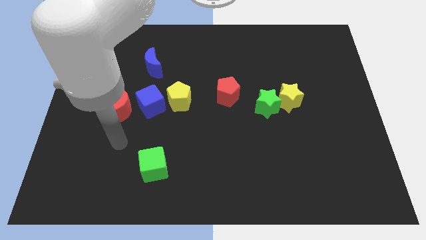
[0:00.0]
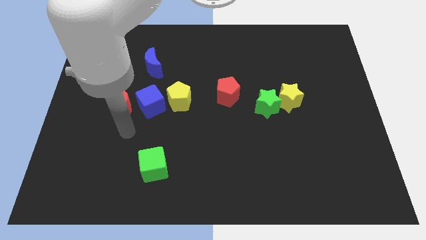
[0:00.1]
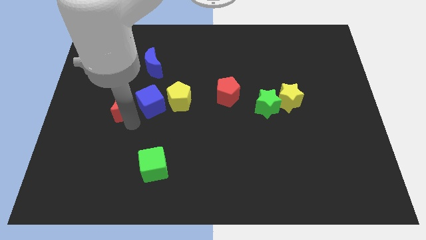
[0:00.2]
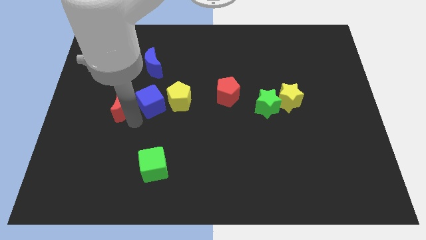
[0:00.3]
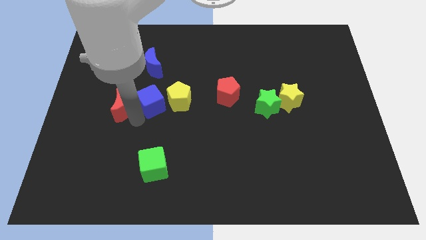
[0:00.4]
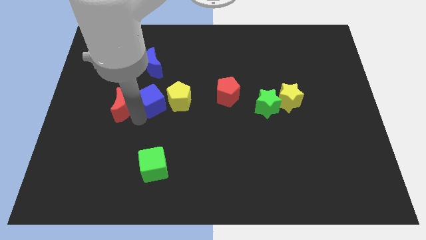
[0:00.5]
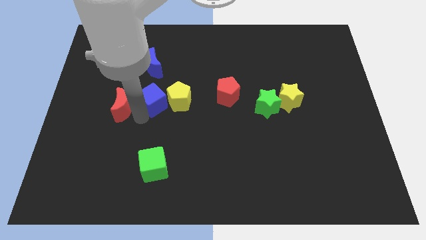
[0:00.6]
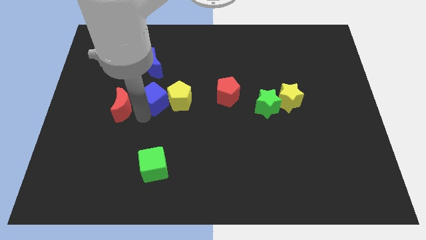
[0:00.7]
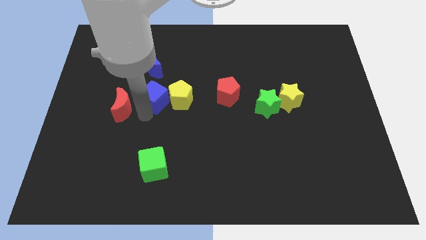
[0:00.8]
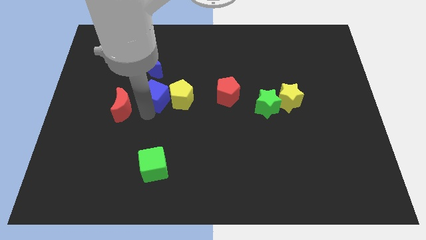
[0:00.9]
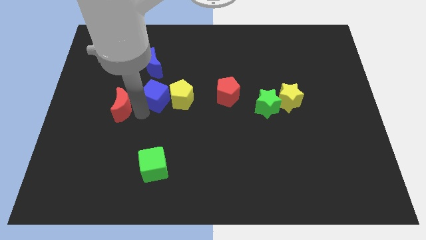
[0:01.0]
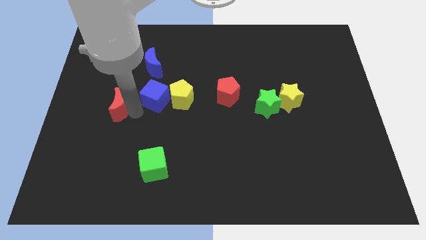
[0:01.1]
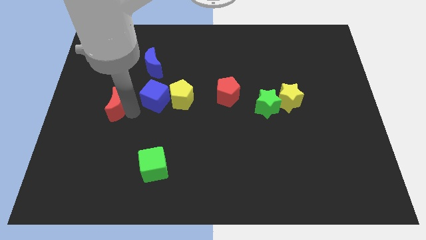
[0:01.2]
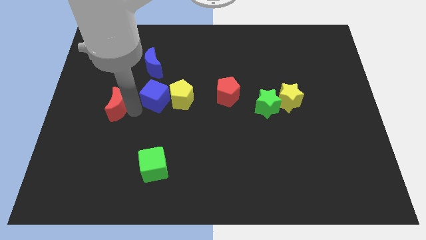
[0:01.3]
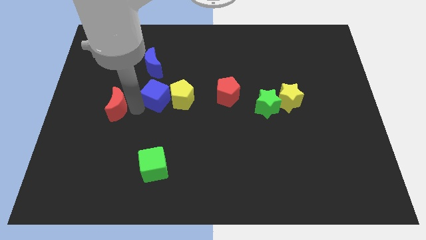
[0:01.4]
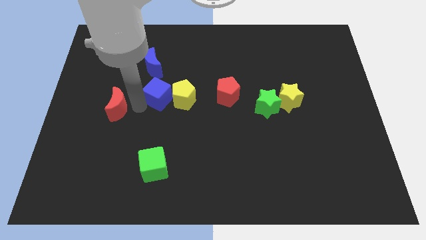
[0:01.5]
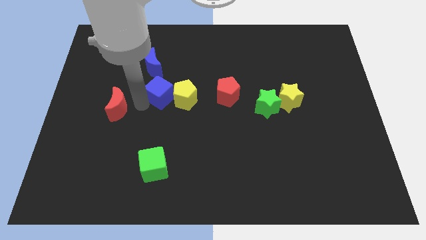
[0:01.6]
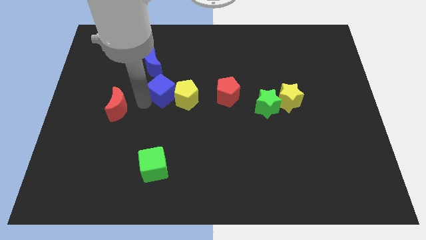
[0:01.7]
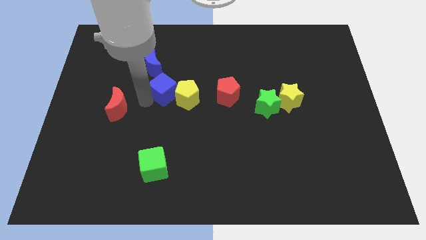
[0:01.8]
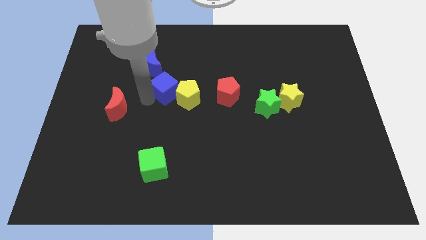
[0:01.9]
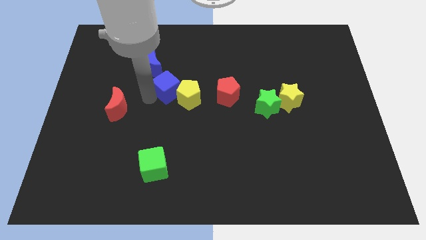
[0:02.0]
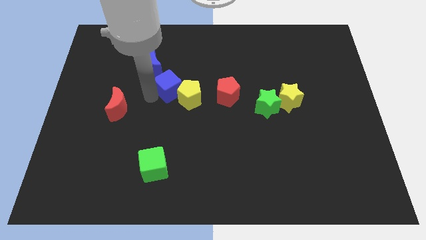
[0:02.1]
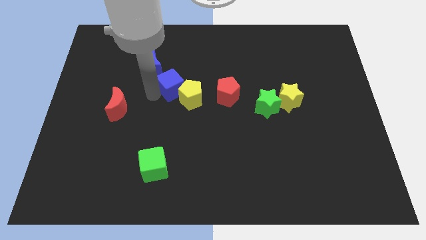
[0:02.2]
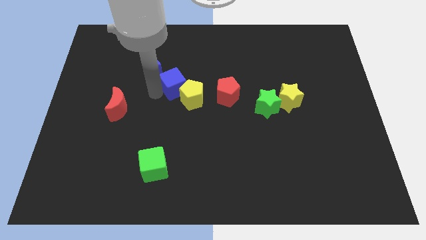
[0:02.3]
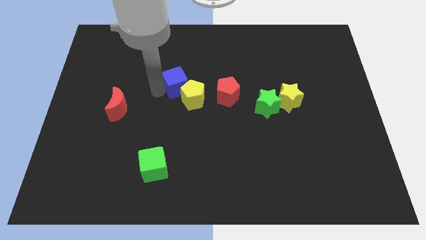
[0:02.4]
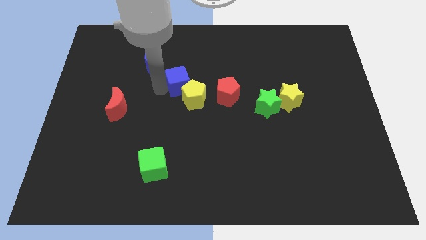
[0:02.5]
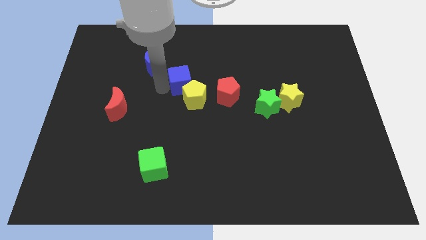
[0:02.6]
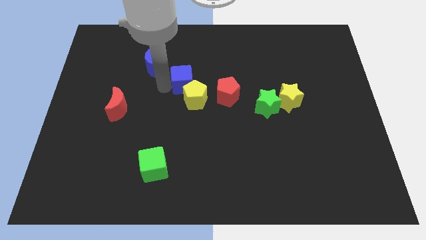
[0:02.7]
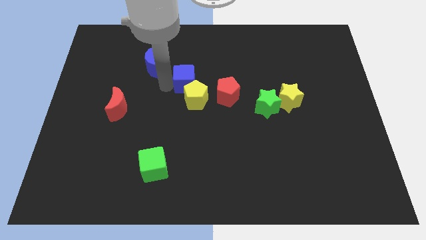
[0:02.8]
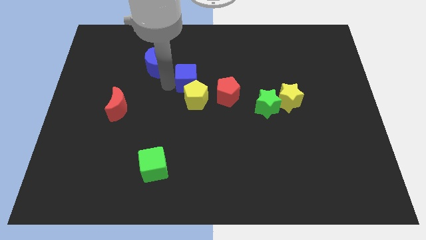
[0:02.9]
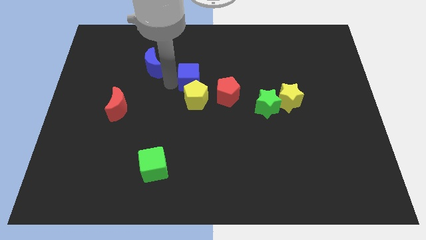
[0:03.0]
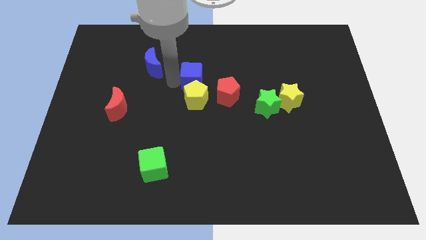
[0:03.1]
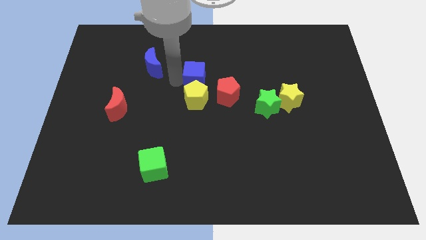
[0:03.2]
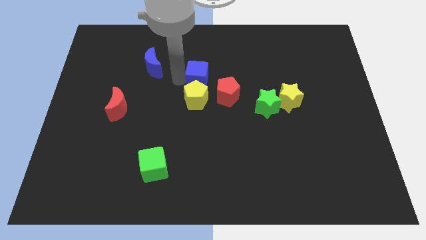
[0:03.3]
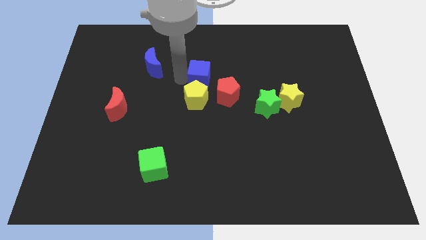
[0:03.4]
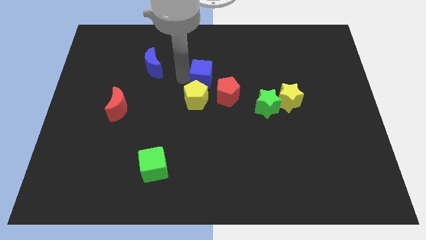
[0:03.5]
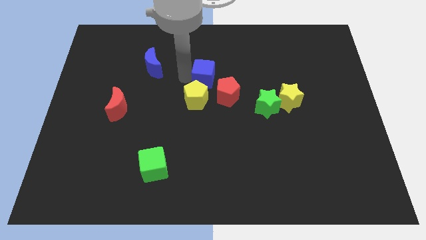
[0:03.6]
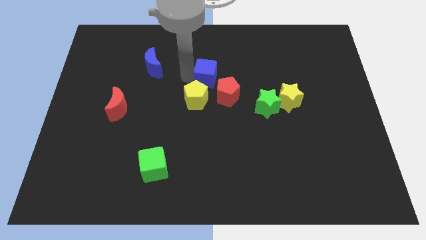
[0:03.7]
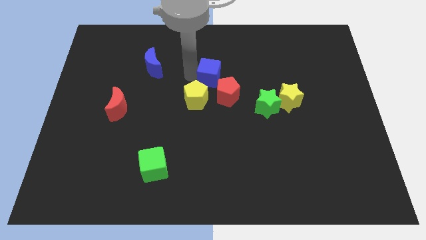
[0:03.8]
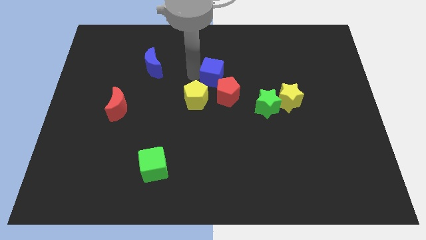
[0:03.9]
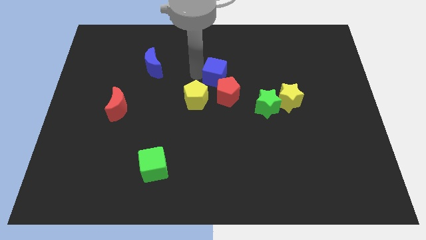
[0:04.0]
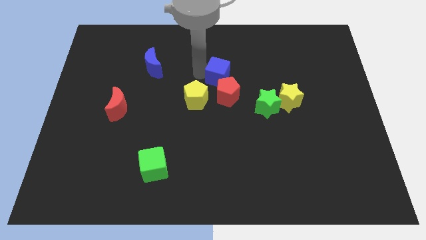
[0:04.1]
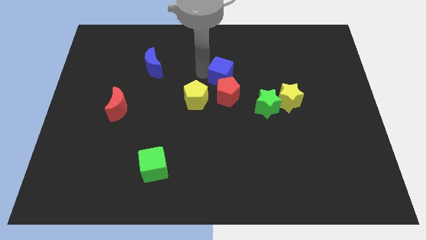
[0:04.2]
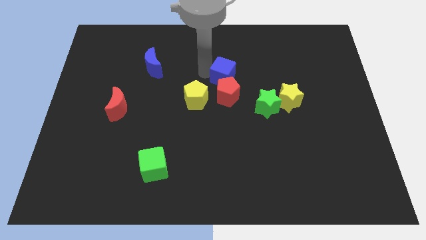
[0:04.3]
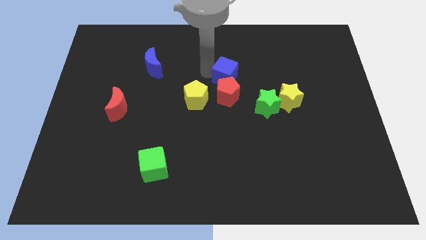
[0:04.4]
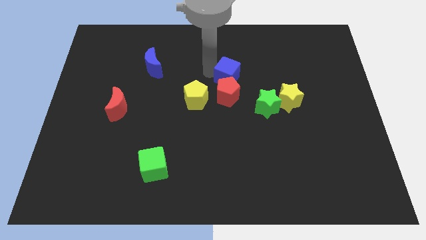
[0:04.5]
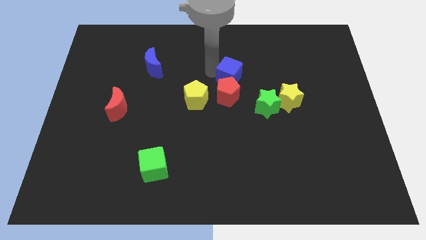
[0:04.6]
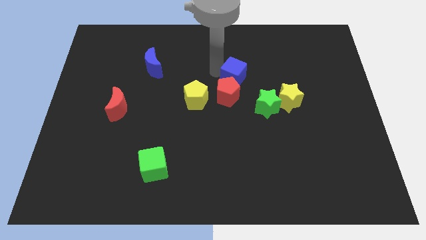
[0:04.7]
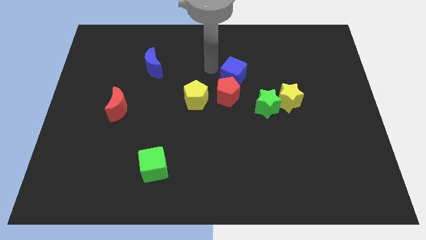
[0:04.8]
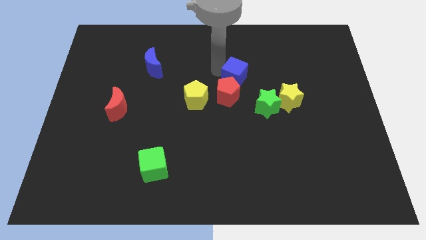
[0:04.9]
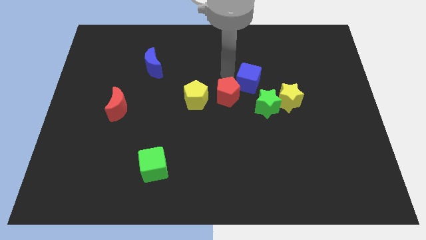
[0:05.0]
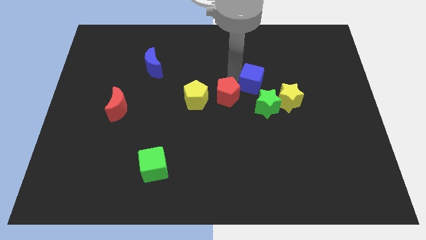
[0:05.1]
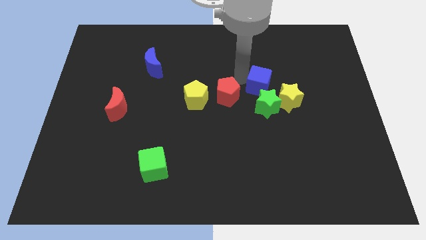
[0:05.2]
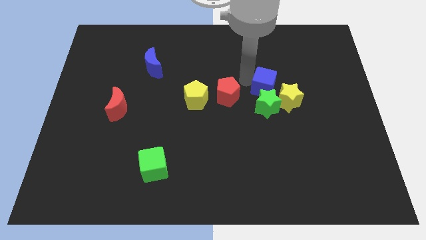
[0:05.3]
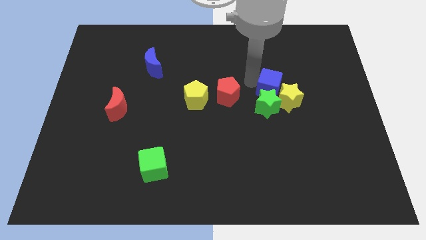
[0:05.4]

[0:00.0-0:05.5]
put the blue cube close to the yellow star

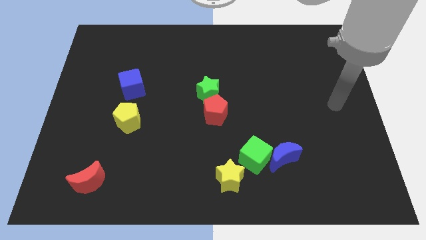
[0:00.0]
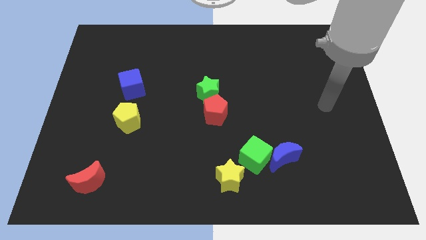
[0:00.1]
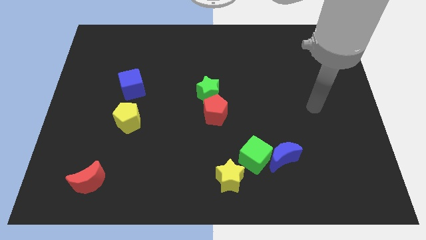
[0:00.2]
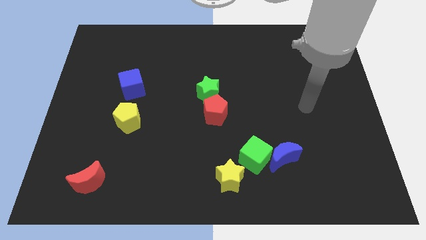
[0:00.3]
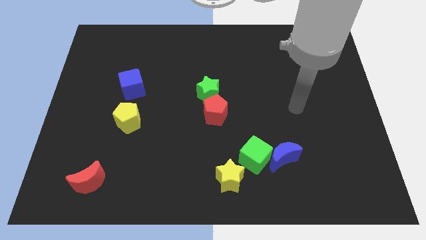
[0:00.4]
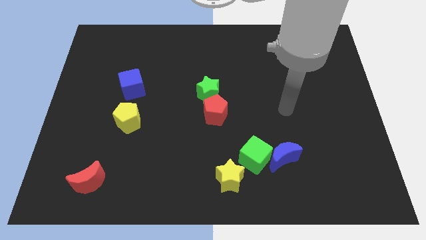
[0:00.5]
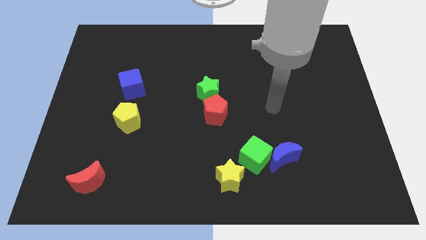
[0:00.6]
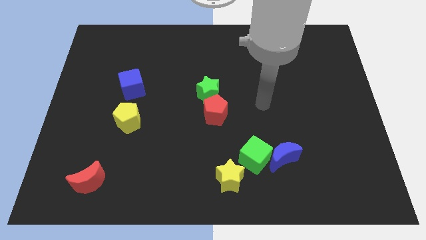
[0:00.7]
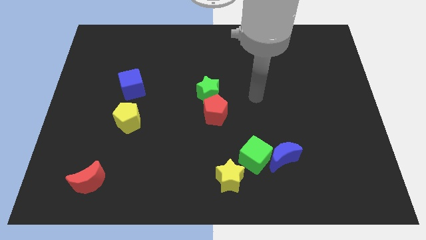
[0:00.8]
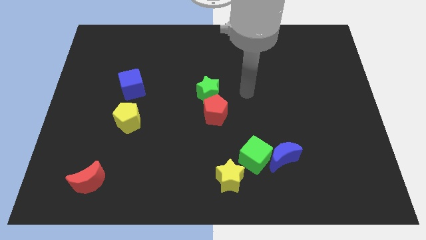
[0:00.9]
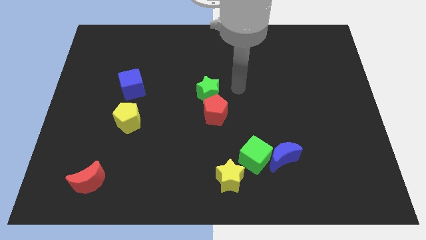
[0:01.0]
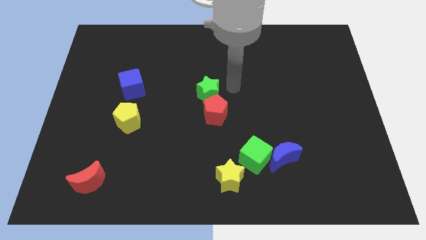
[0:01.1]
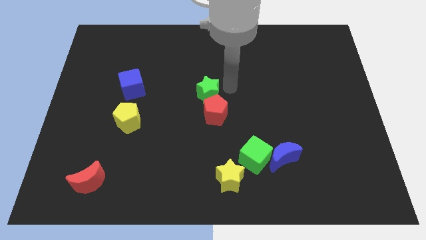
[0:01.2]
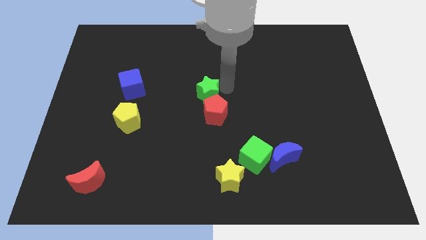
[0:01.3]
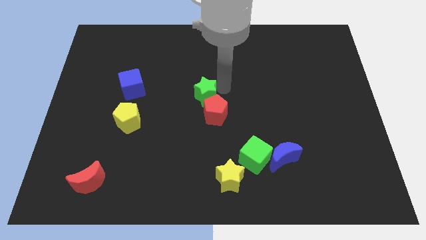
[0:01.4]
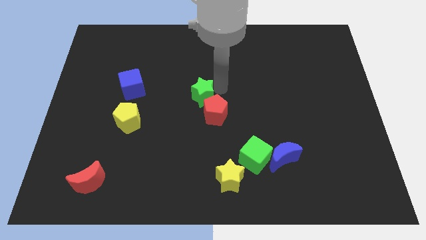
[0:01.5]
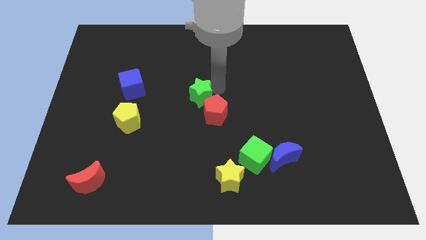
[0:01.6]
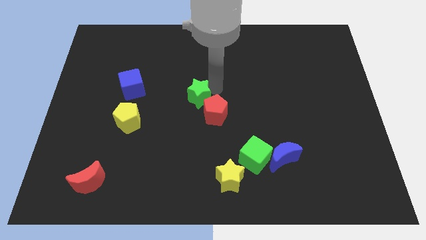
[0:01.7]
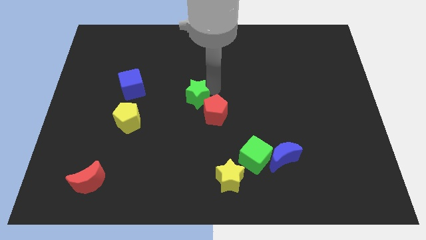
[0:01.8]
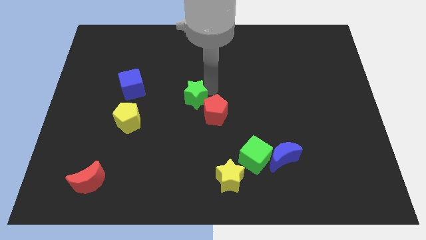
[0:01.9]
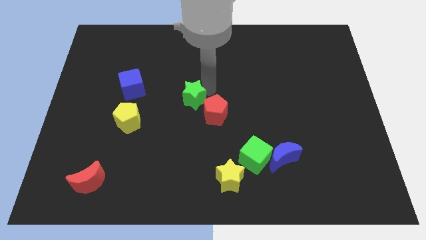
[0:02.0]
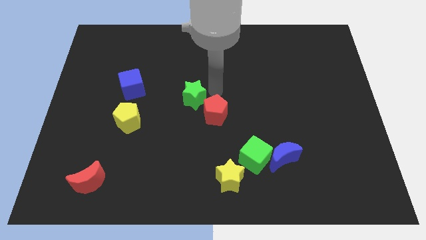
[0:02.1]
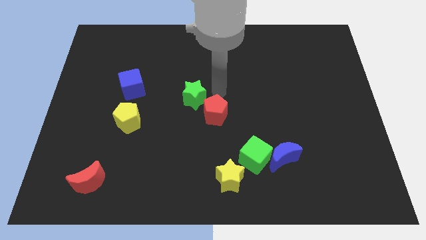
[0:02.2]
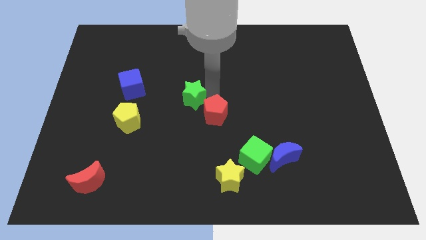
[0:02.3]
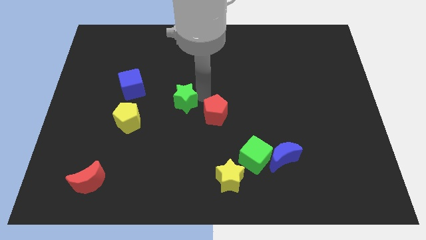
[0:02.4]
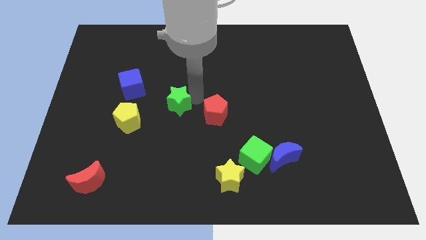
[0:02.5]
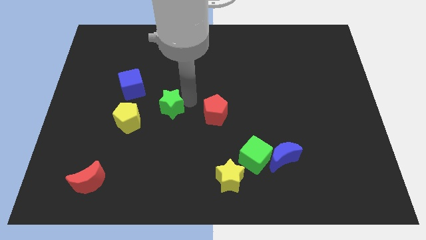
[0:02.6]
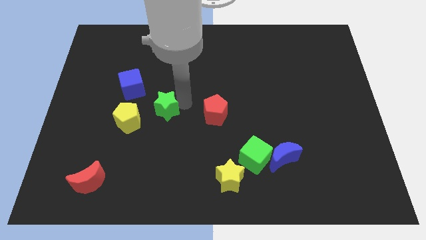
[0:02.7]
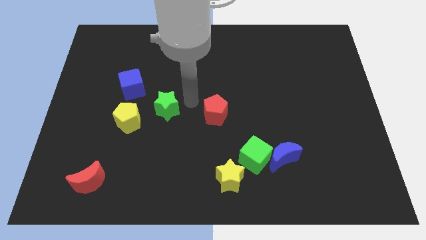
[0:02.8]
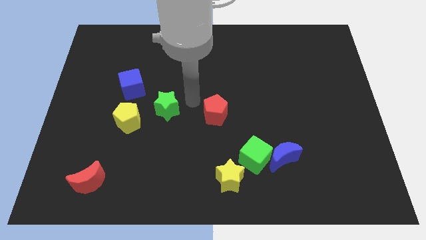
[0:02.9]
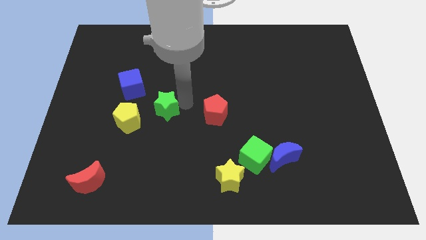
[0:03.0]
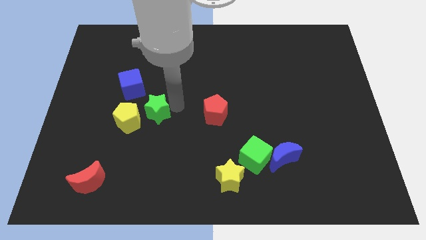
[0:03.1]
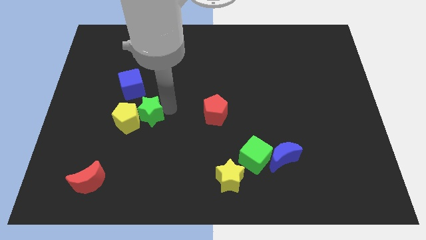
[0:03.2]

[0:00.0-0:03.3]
put the green star close to the yellow pentagon
